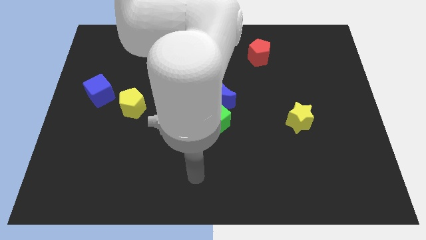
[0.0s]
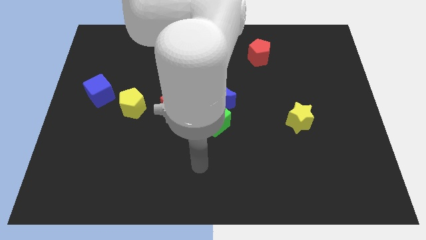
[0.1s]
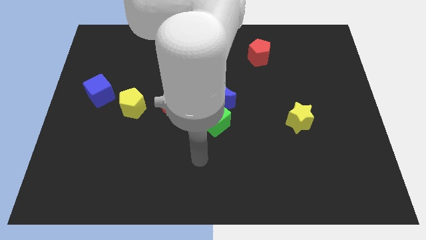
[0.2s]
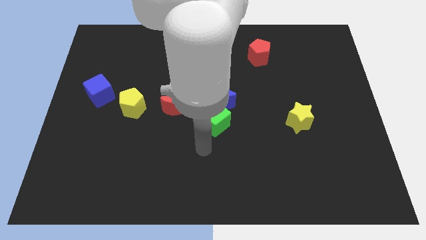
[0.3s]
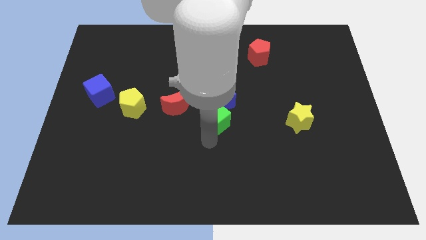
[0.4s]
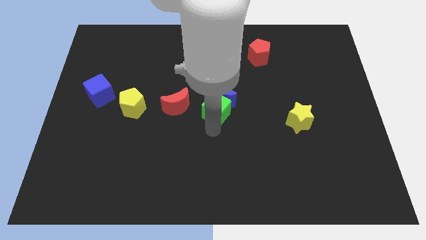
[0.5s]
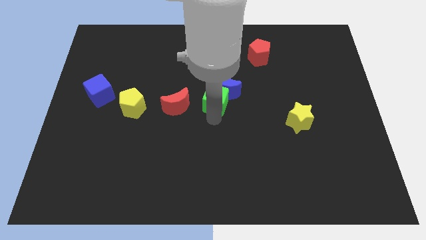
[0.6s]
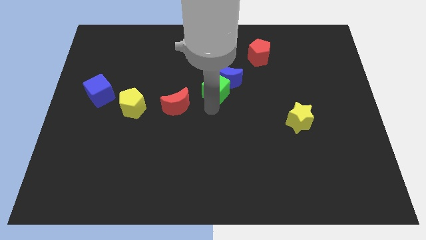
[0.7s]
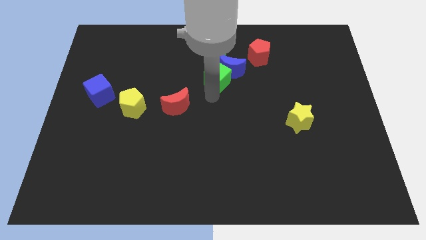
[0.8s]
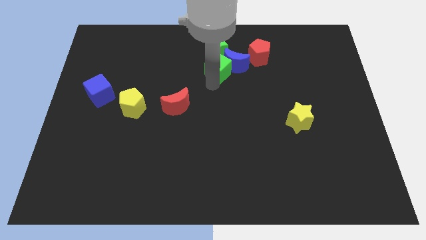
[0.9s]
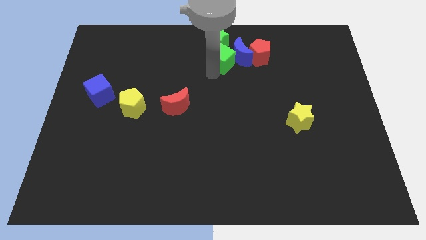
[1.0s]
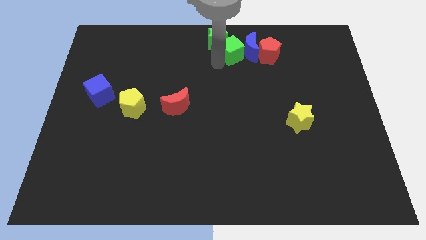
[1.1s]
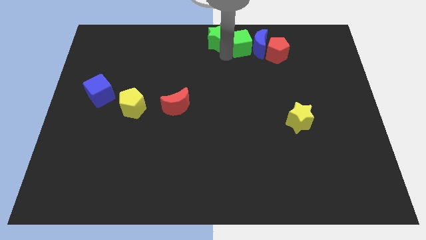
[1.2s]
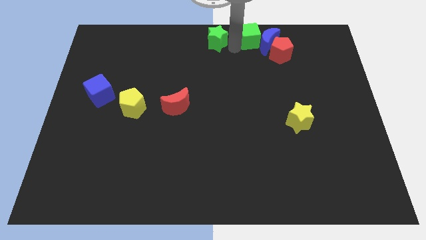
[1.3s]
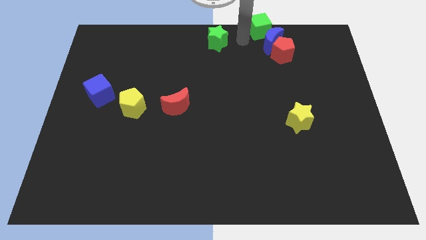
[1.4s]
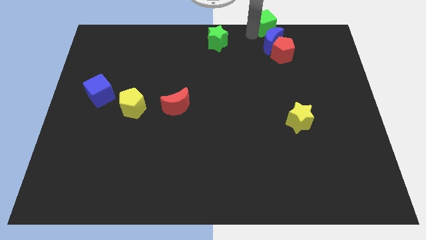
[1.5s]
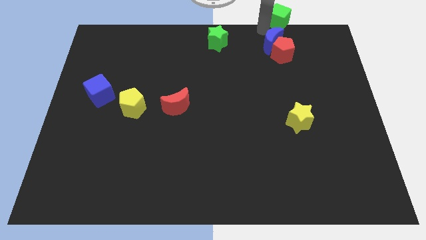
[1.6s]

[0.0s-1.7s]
pull the blue moon apart from the green cube

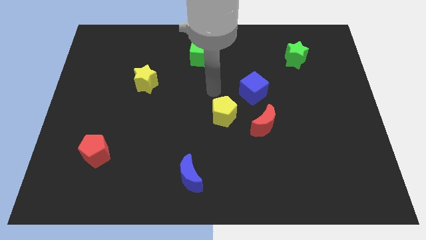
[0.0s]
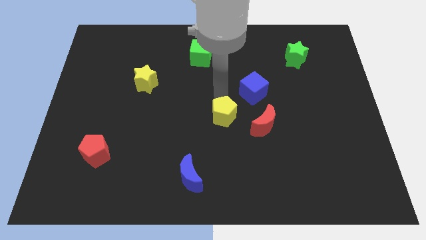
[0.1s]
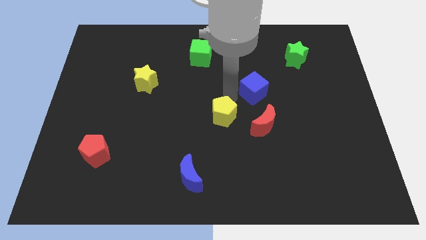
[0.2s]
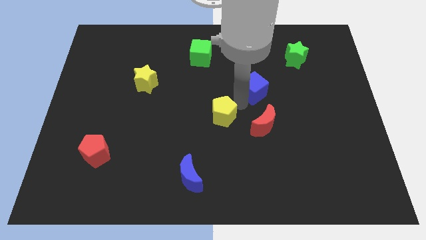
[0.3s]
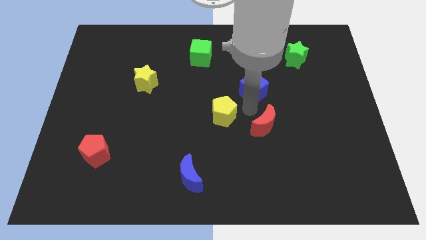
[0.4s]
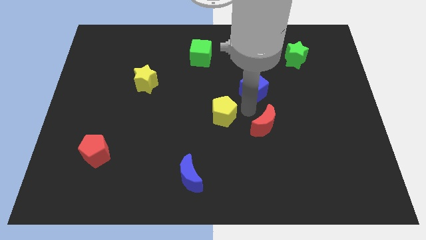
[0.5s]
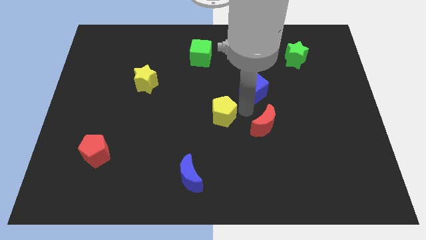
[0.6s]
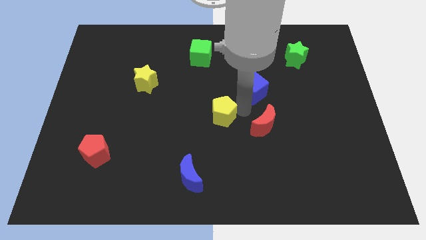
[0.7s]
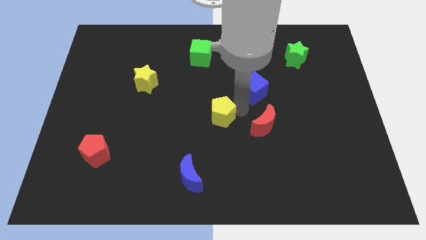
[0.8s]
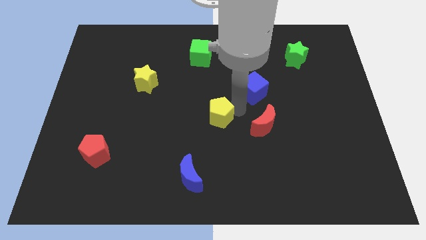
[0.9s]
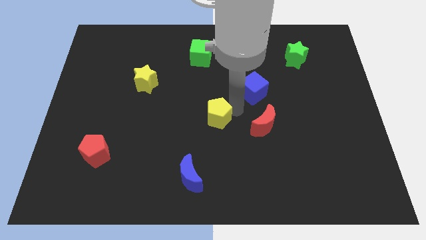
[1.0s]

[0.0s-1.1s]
separate the yellow pentagon from the red moon and blue cube

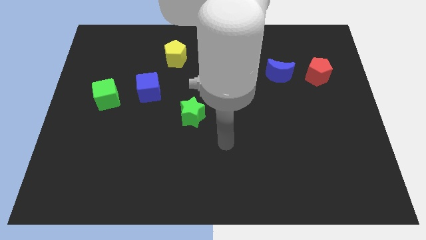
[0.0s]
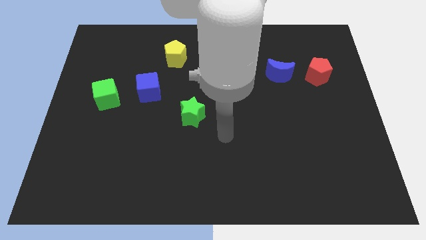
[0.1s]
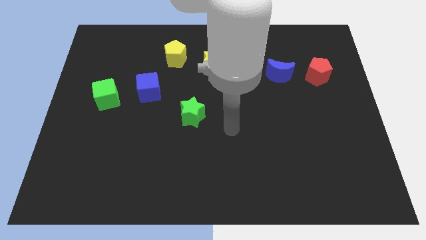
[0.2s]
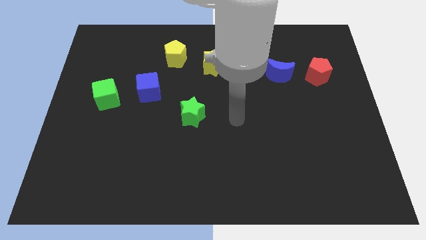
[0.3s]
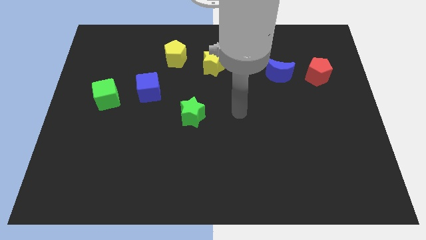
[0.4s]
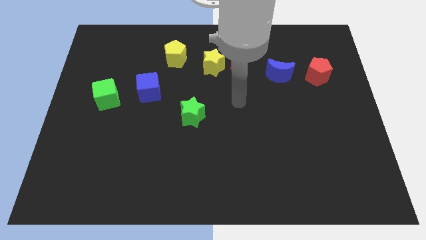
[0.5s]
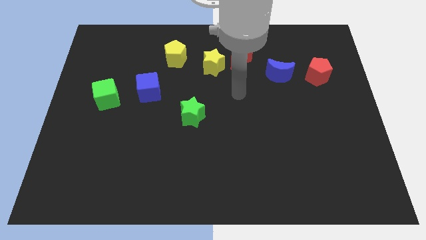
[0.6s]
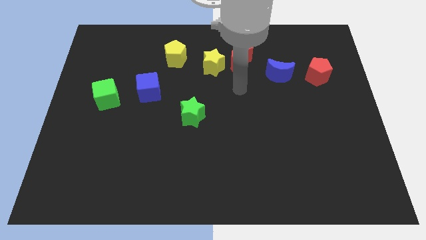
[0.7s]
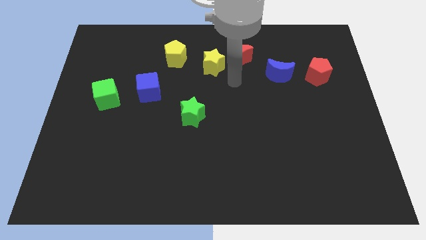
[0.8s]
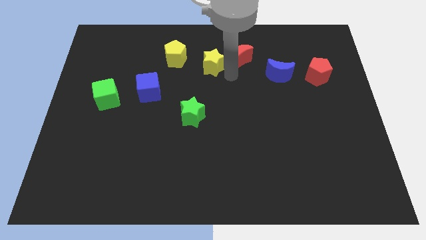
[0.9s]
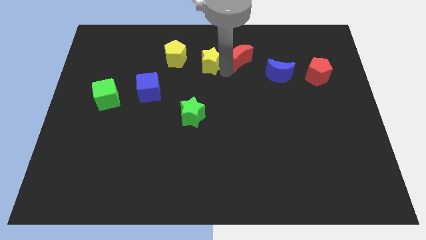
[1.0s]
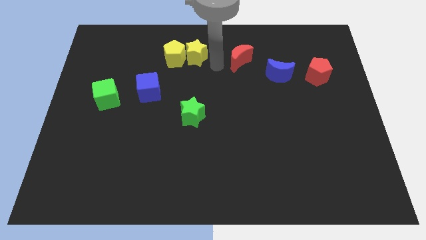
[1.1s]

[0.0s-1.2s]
move the red moon away from the yellow star

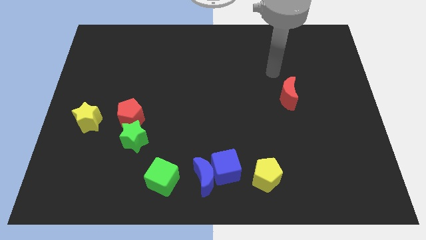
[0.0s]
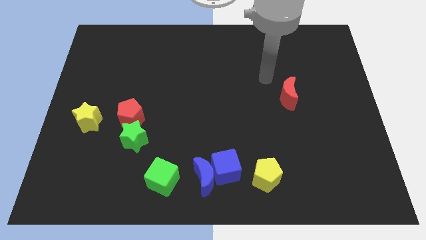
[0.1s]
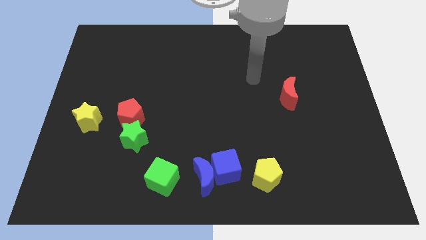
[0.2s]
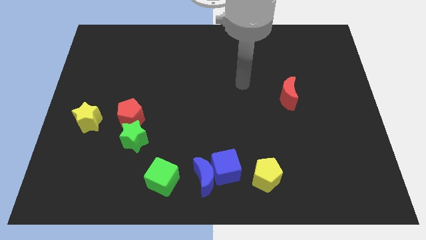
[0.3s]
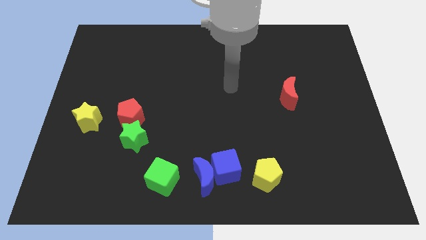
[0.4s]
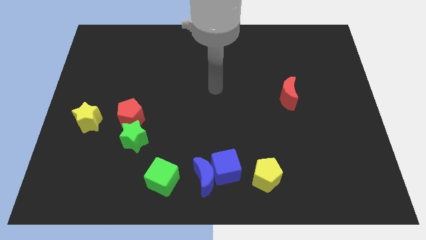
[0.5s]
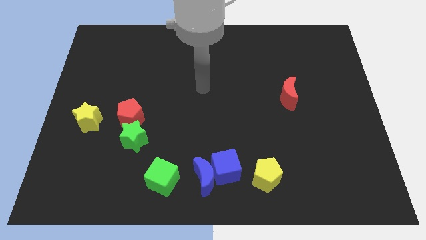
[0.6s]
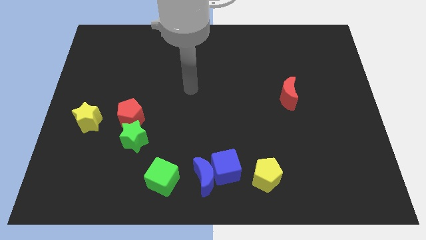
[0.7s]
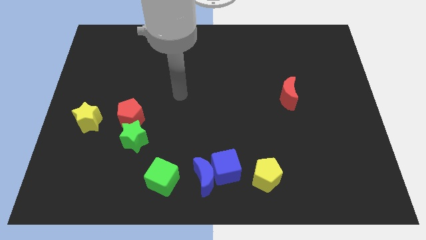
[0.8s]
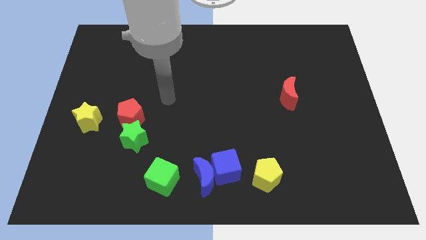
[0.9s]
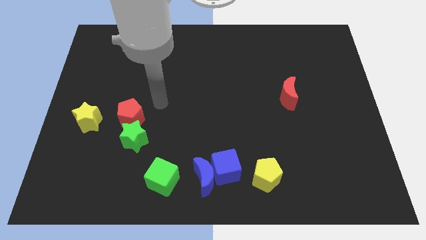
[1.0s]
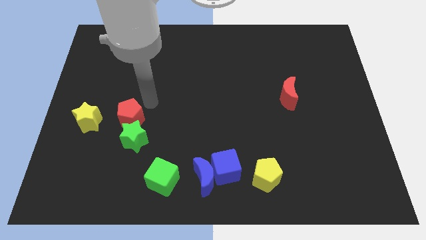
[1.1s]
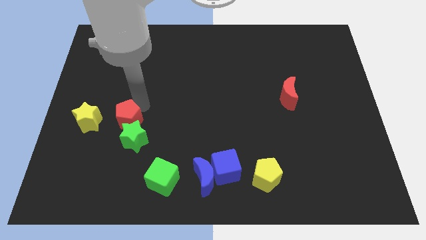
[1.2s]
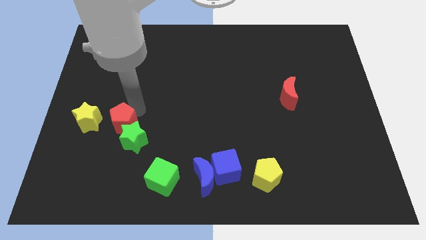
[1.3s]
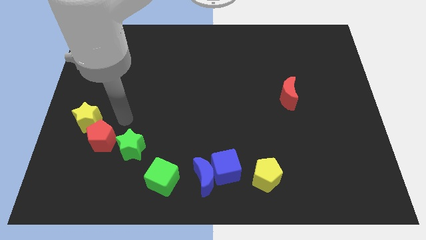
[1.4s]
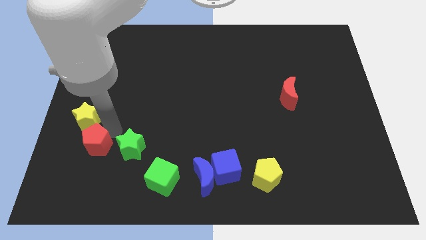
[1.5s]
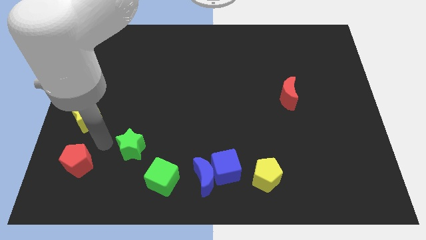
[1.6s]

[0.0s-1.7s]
move the green star away from the red pentagon

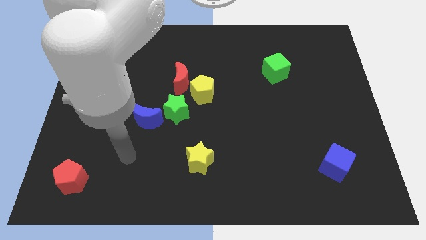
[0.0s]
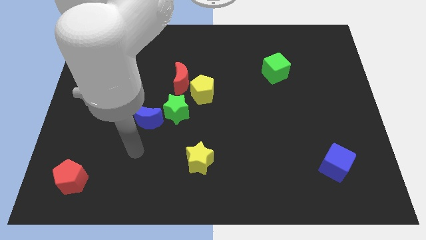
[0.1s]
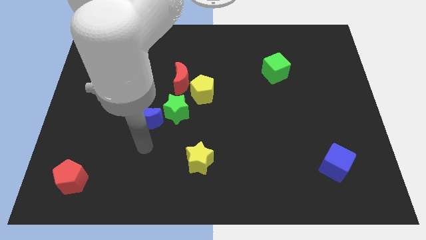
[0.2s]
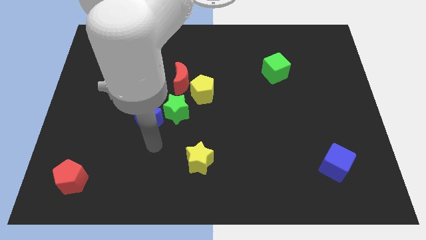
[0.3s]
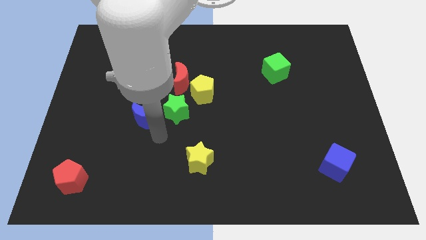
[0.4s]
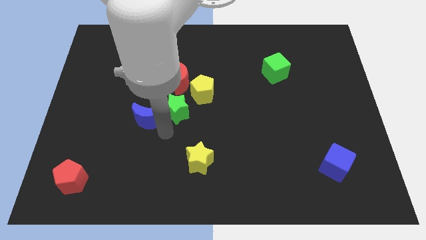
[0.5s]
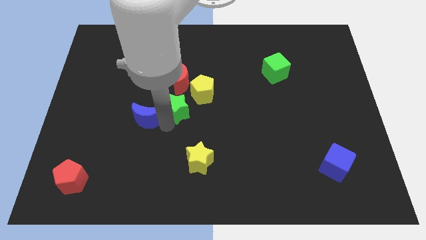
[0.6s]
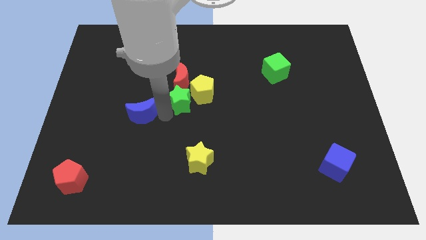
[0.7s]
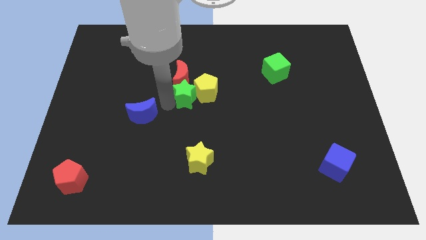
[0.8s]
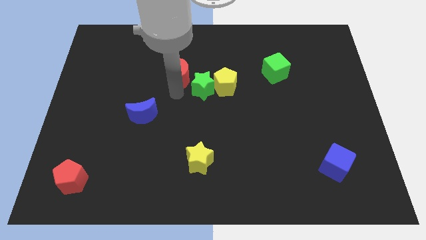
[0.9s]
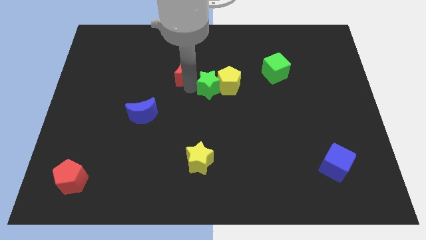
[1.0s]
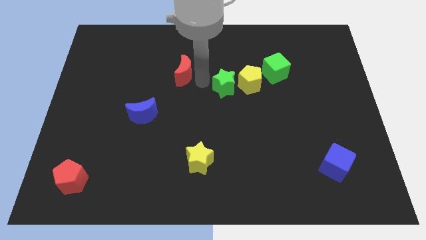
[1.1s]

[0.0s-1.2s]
move the yellow pentagon away from the red moon and green star

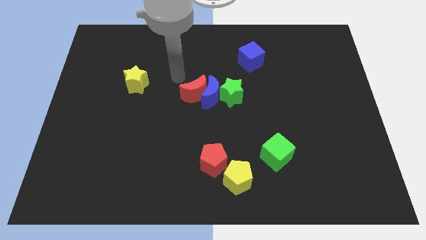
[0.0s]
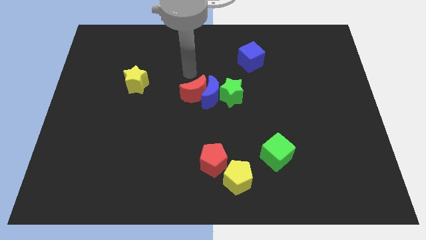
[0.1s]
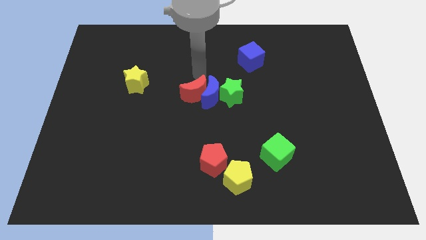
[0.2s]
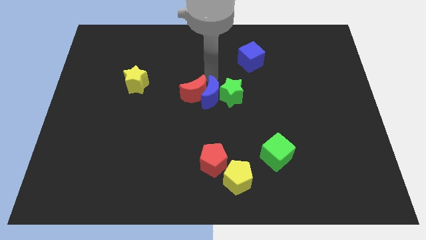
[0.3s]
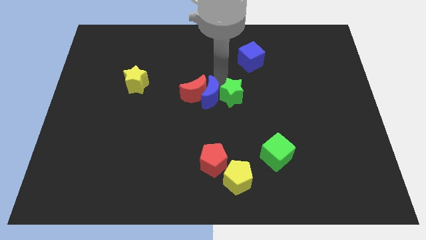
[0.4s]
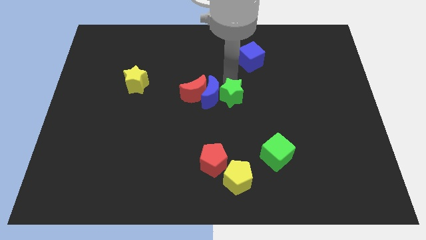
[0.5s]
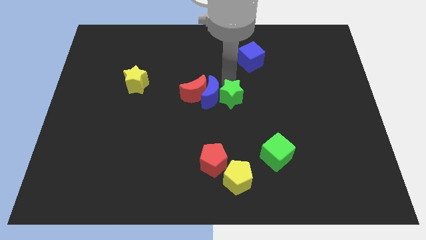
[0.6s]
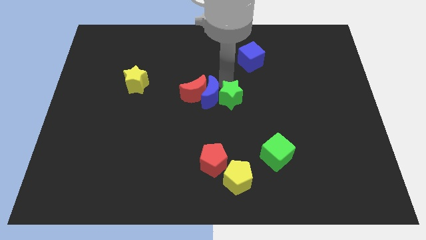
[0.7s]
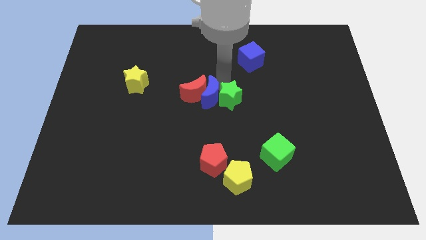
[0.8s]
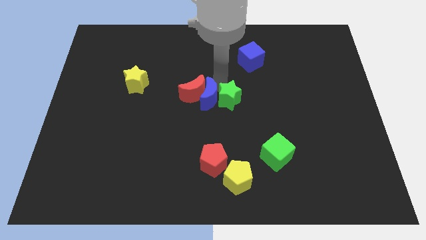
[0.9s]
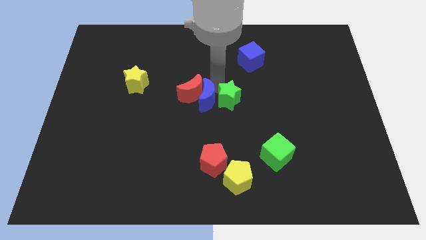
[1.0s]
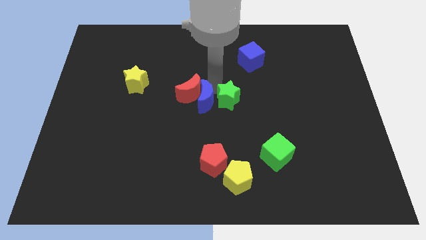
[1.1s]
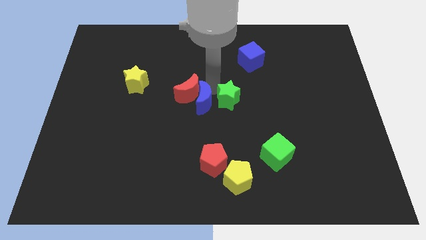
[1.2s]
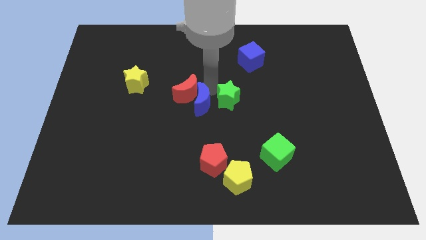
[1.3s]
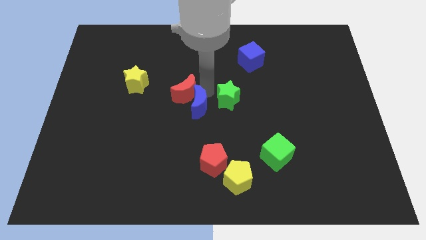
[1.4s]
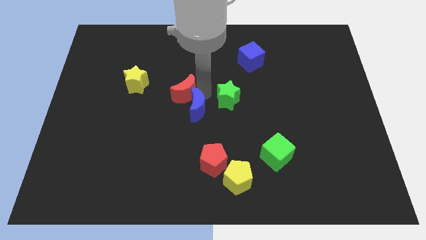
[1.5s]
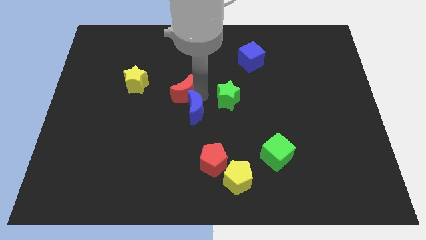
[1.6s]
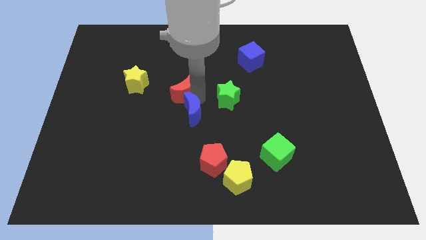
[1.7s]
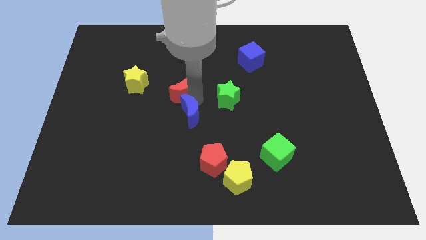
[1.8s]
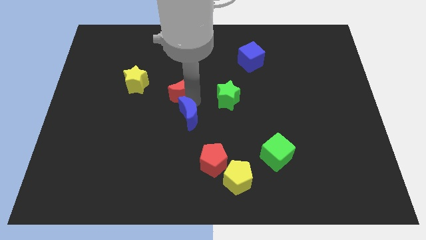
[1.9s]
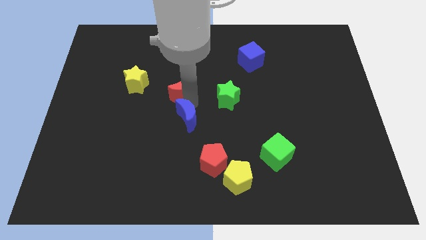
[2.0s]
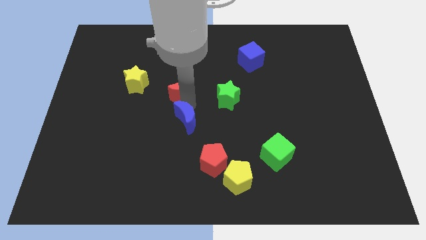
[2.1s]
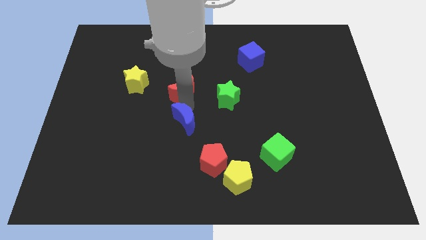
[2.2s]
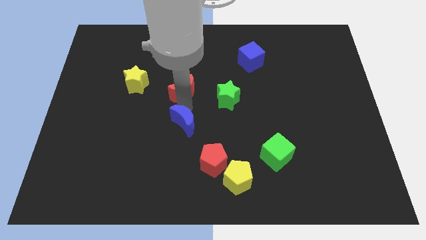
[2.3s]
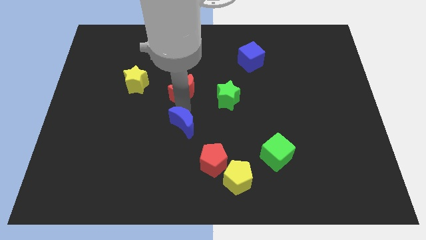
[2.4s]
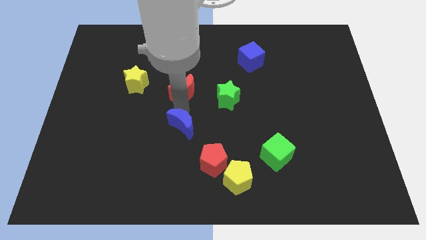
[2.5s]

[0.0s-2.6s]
separate the blue moon from the red moon and green star
